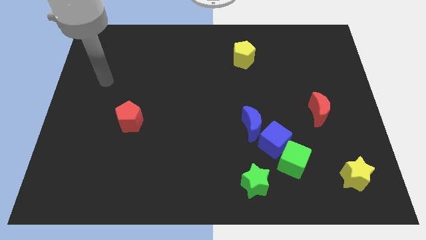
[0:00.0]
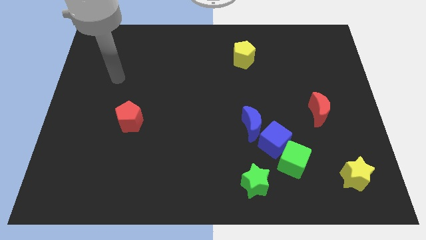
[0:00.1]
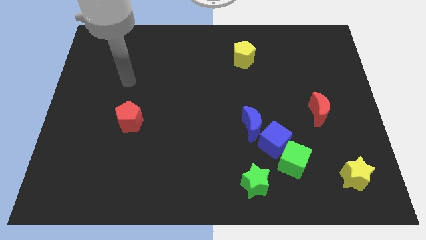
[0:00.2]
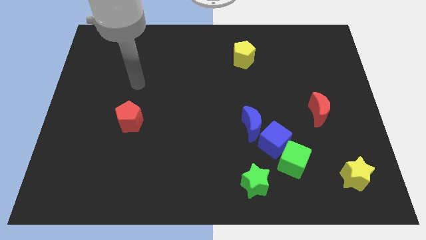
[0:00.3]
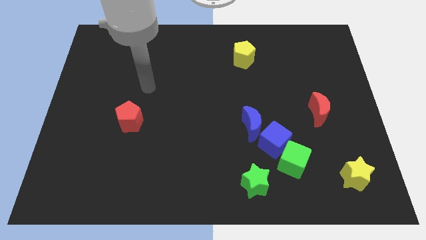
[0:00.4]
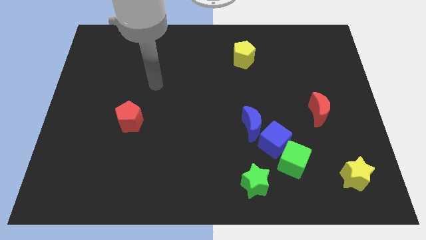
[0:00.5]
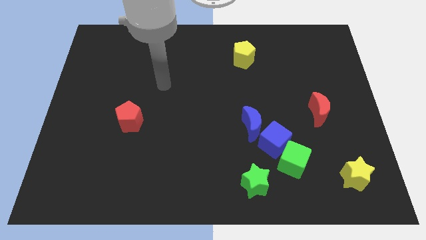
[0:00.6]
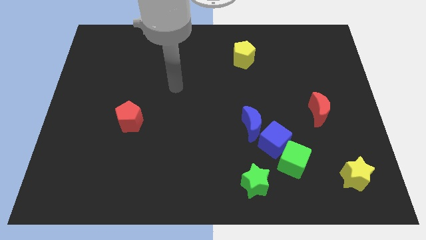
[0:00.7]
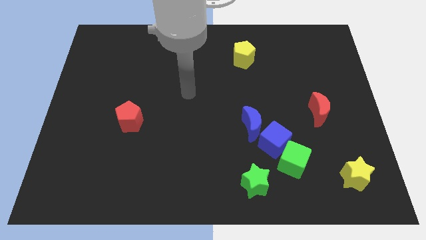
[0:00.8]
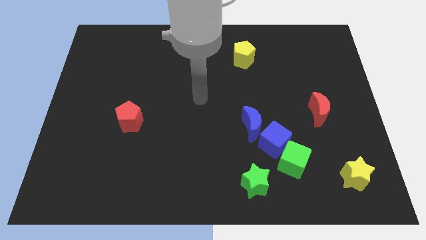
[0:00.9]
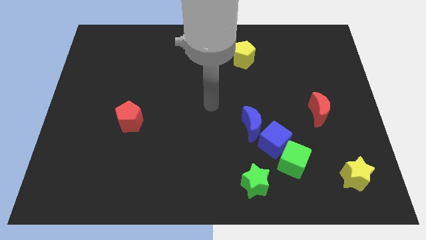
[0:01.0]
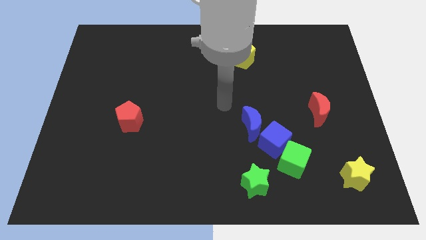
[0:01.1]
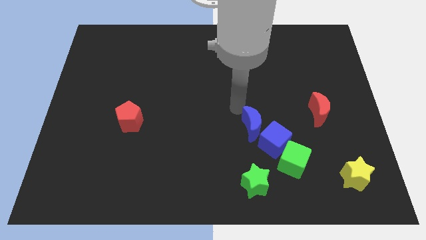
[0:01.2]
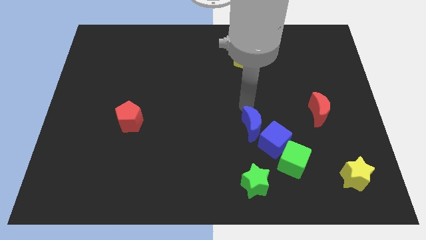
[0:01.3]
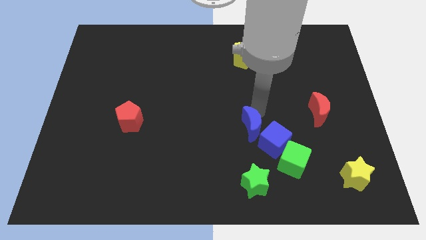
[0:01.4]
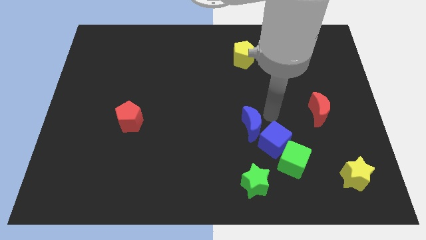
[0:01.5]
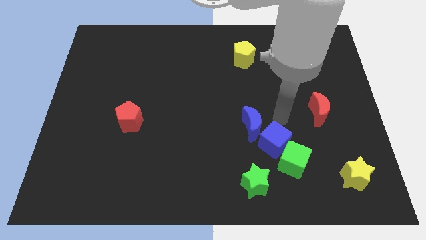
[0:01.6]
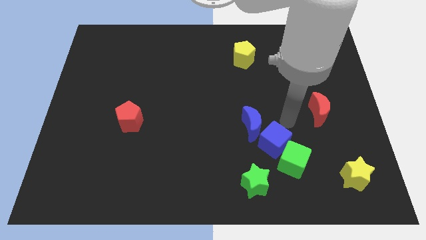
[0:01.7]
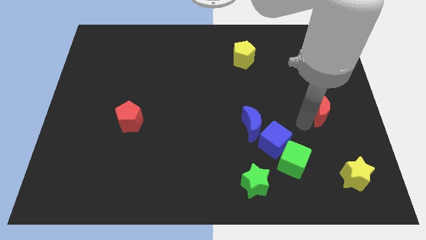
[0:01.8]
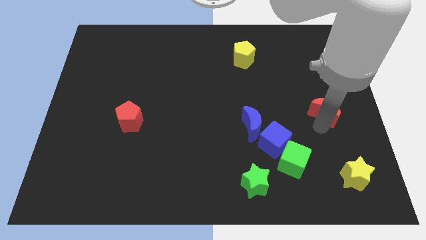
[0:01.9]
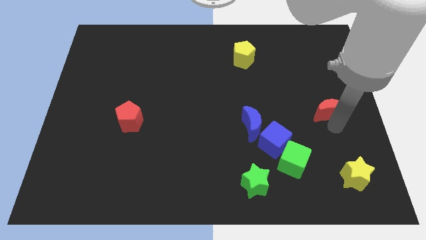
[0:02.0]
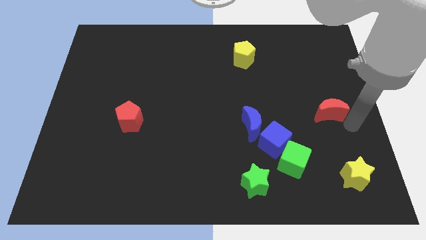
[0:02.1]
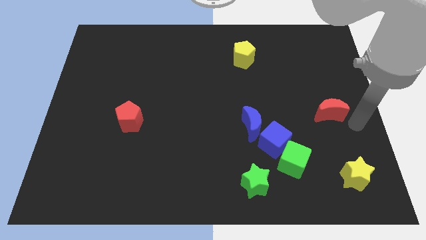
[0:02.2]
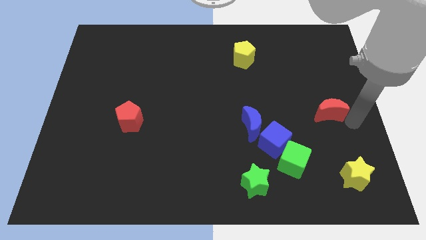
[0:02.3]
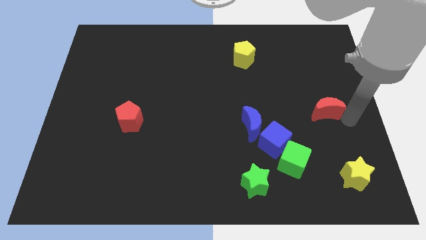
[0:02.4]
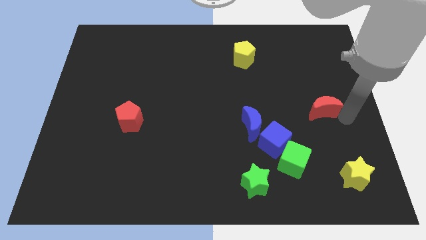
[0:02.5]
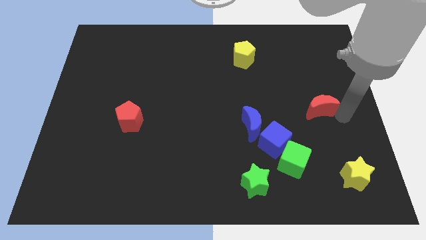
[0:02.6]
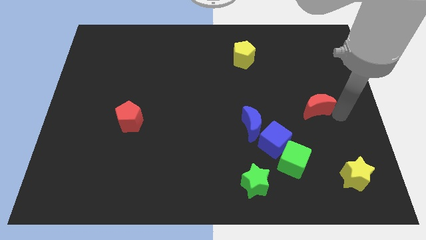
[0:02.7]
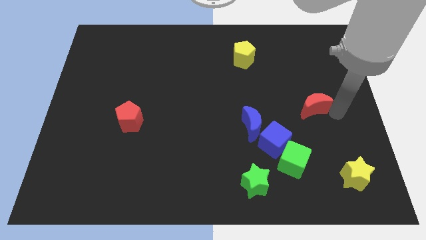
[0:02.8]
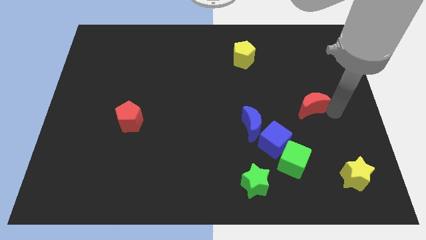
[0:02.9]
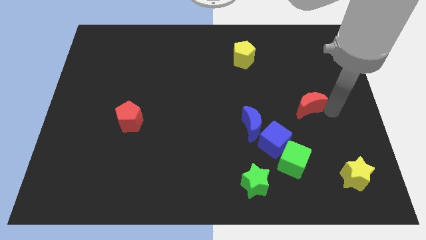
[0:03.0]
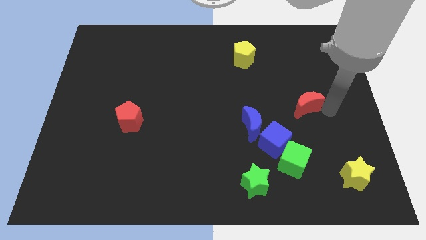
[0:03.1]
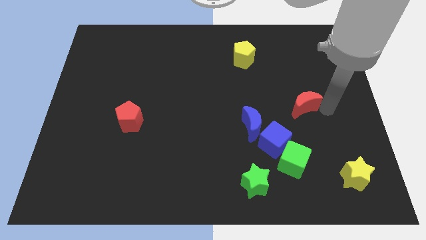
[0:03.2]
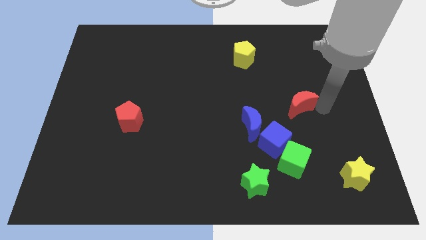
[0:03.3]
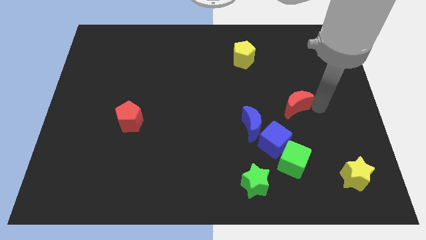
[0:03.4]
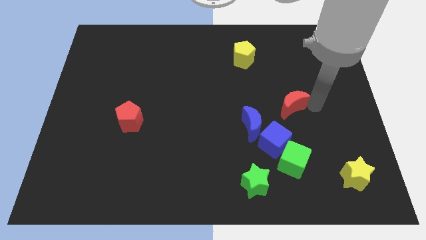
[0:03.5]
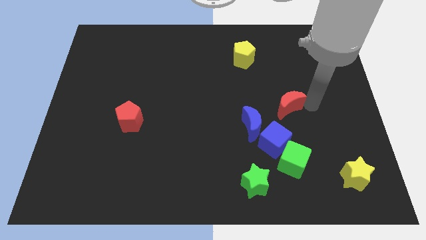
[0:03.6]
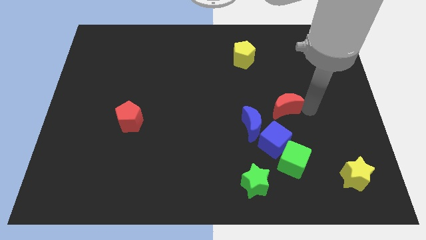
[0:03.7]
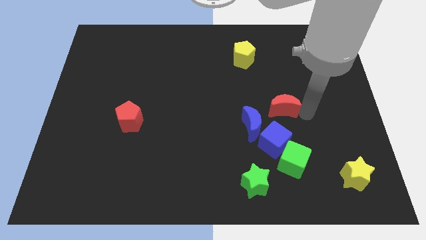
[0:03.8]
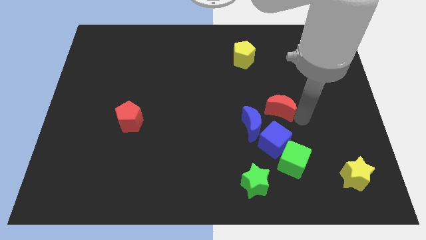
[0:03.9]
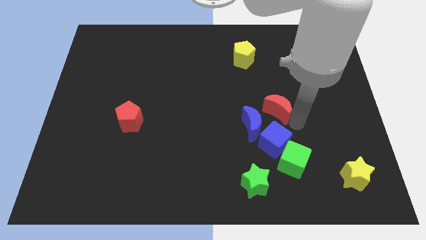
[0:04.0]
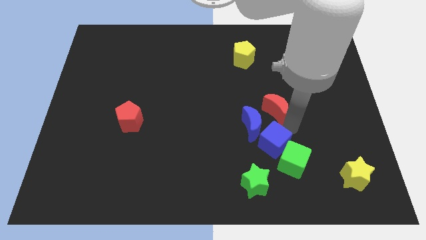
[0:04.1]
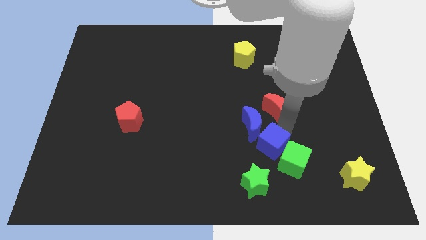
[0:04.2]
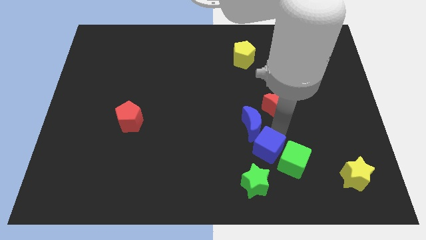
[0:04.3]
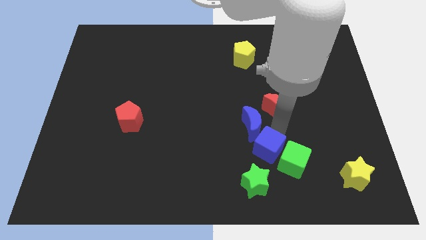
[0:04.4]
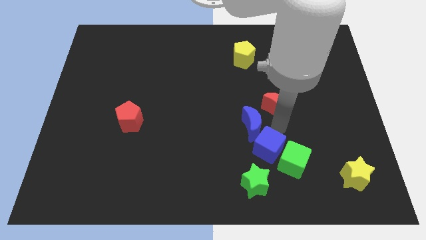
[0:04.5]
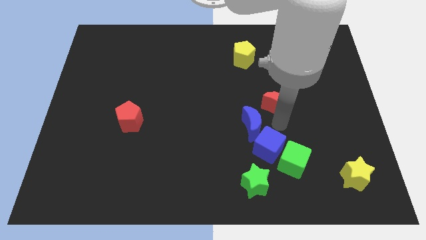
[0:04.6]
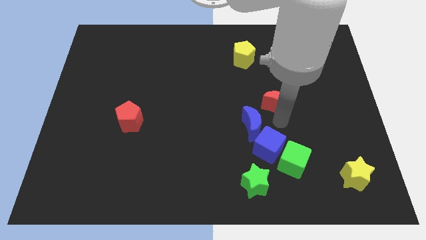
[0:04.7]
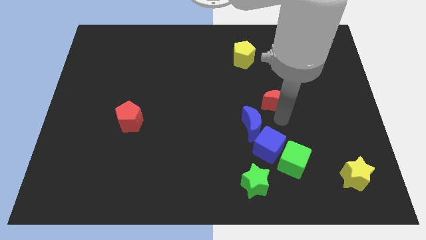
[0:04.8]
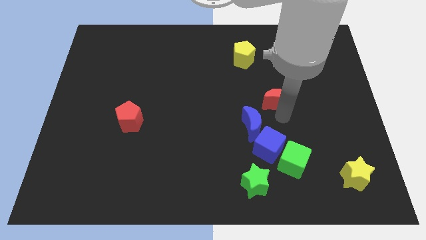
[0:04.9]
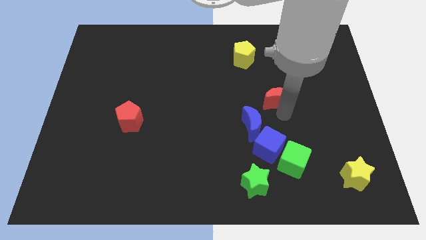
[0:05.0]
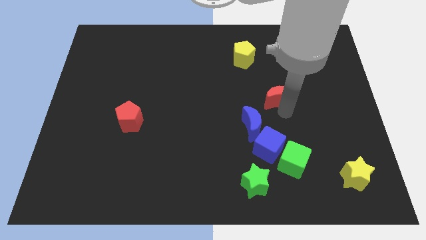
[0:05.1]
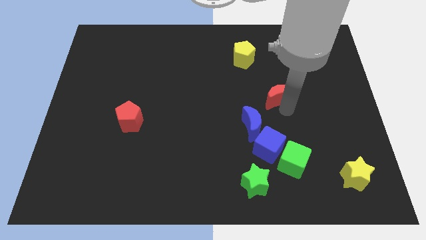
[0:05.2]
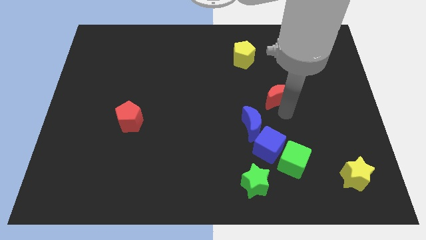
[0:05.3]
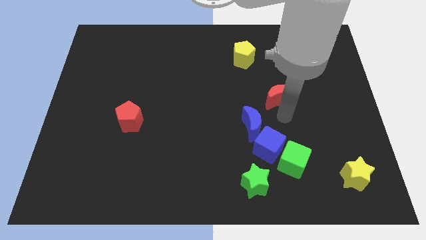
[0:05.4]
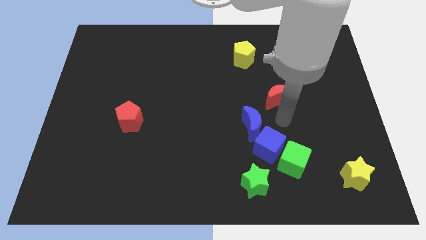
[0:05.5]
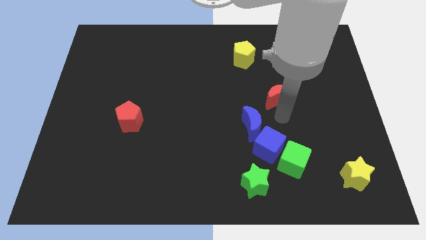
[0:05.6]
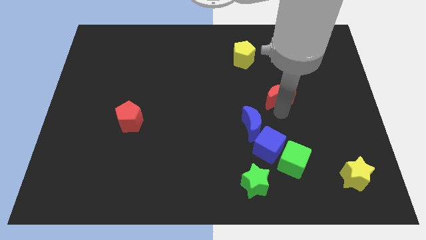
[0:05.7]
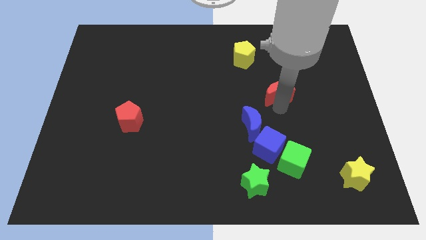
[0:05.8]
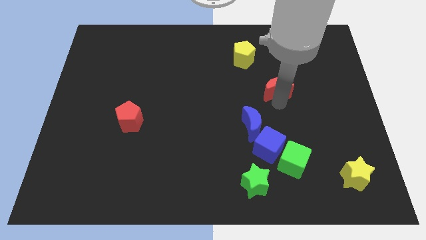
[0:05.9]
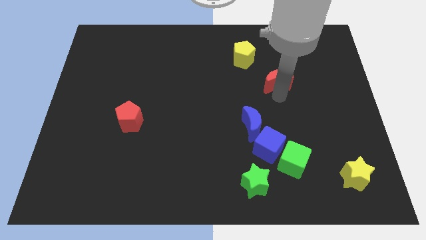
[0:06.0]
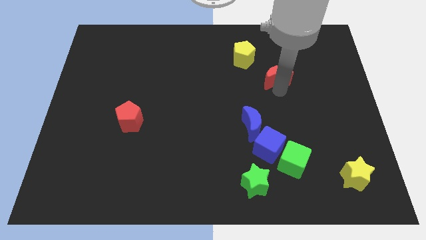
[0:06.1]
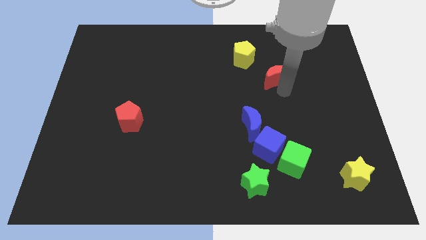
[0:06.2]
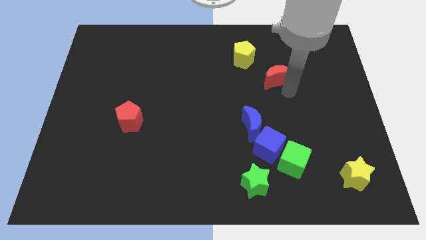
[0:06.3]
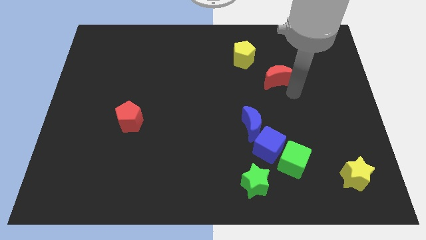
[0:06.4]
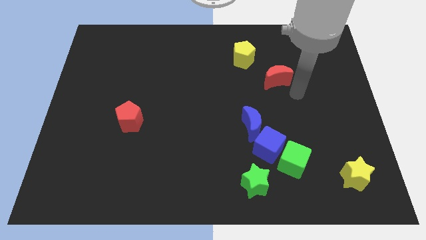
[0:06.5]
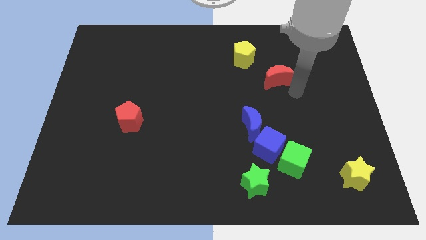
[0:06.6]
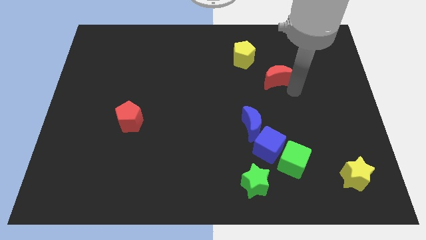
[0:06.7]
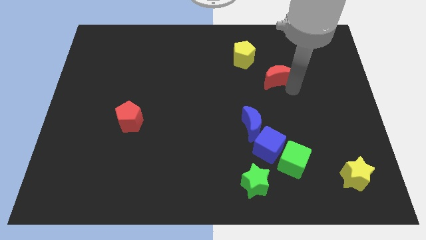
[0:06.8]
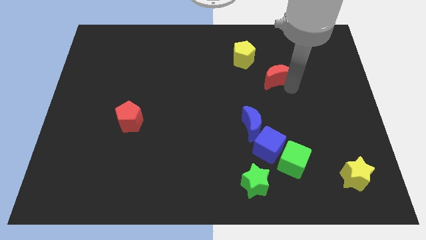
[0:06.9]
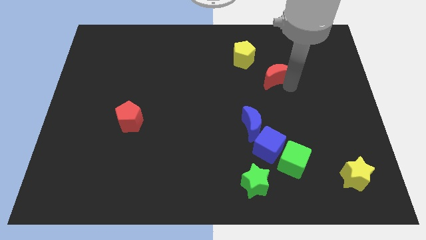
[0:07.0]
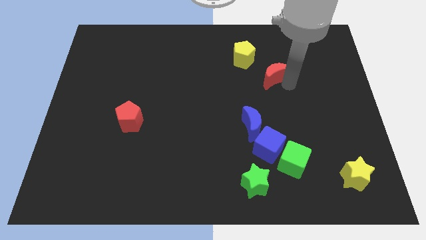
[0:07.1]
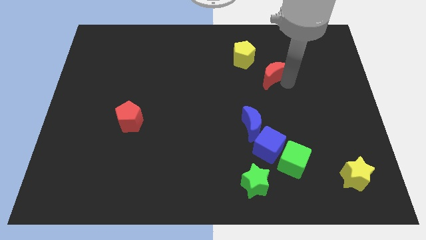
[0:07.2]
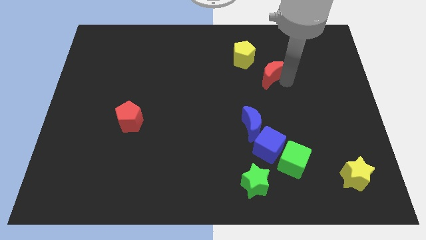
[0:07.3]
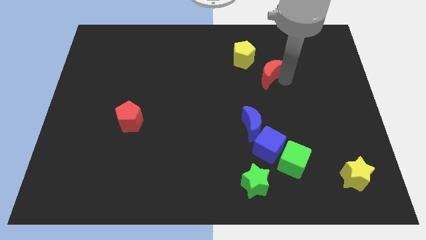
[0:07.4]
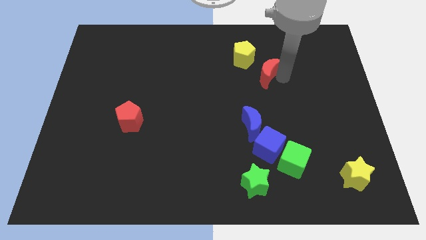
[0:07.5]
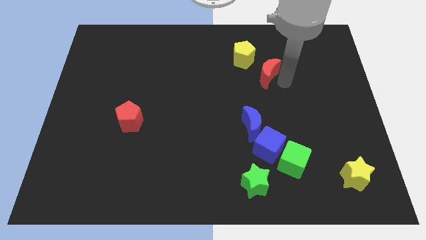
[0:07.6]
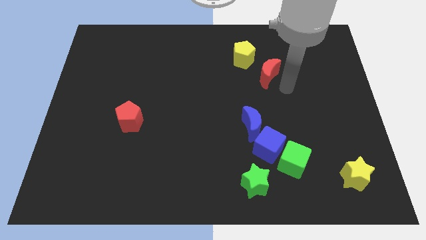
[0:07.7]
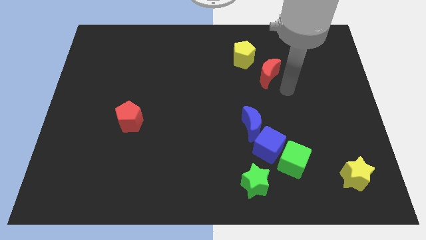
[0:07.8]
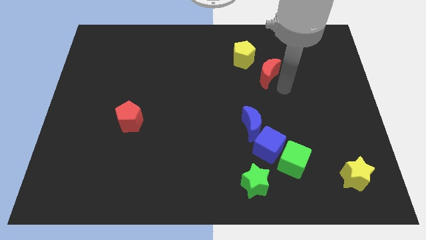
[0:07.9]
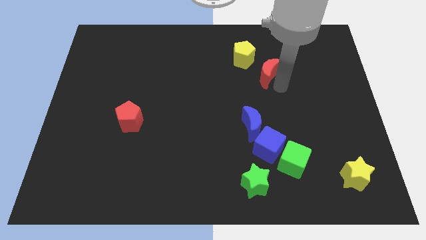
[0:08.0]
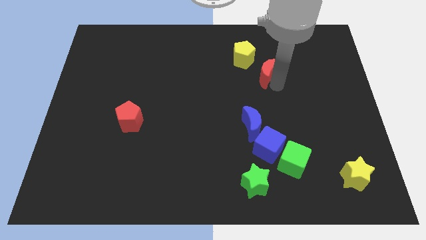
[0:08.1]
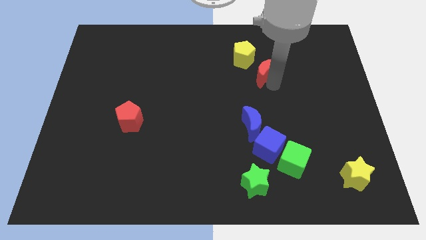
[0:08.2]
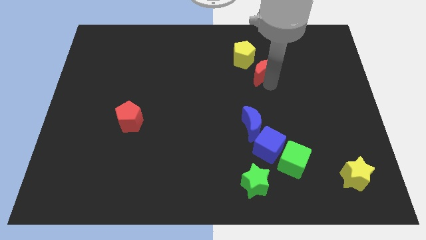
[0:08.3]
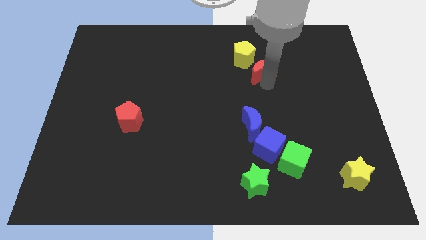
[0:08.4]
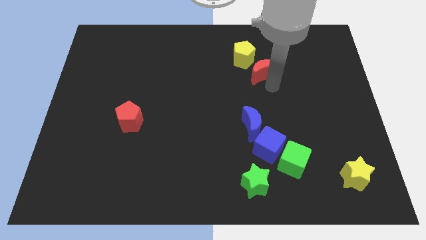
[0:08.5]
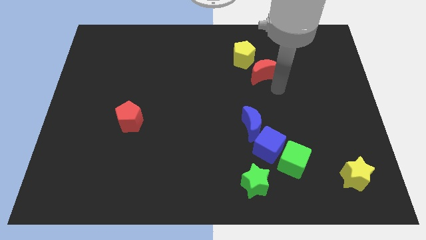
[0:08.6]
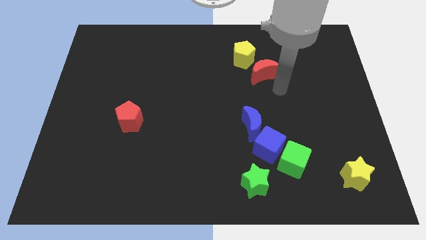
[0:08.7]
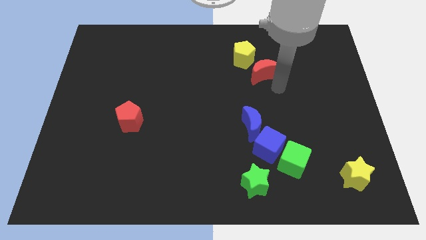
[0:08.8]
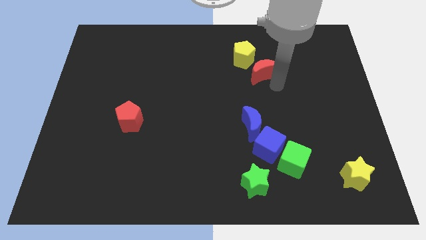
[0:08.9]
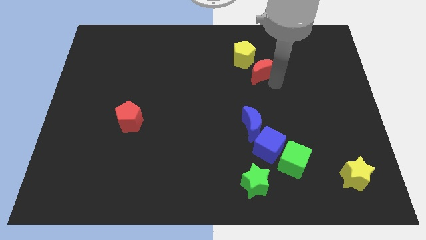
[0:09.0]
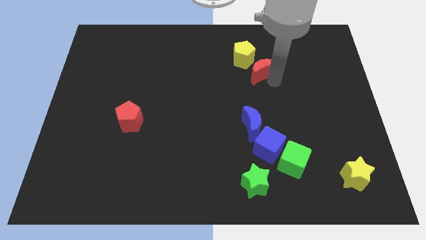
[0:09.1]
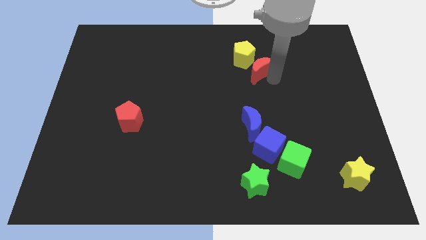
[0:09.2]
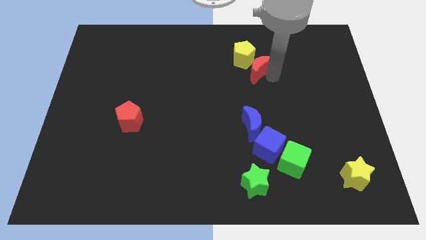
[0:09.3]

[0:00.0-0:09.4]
push the red moon to the yellow pentagon
